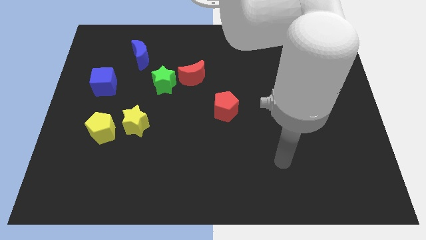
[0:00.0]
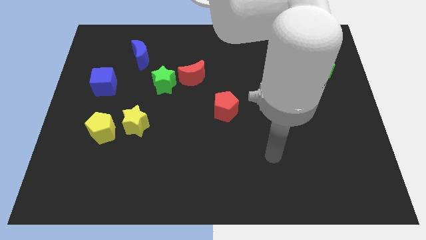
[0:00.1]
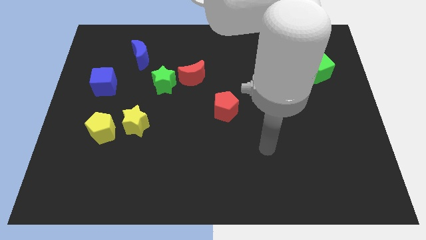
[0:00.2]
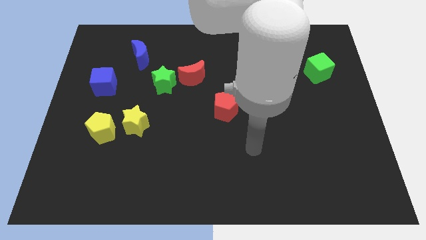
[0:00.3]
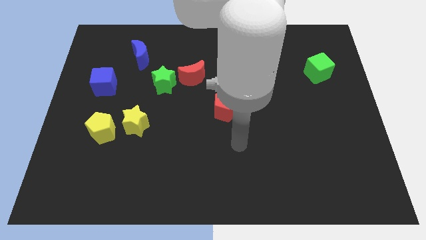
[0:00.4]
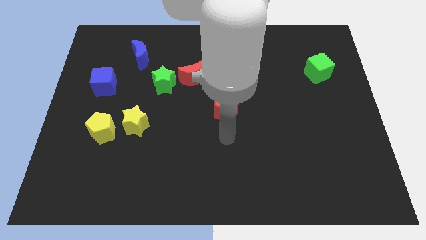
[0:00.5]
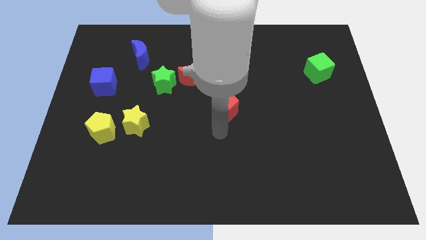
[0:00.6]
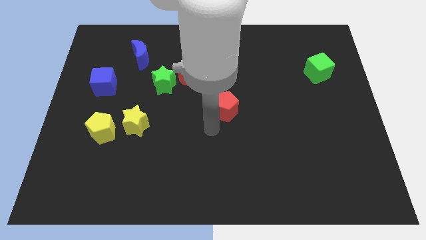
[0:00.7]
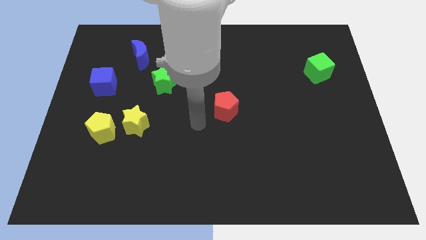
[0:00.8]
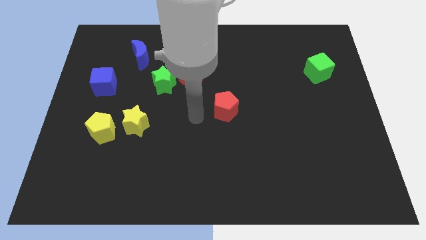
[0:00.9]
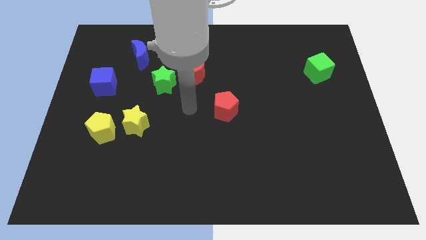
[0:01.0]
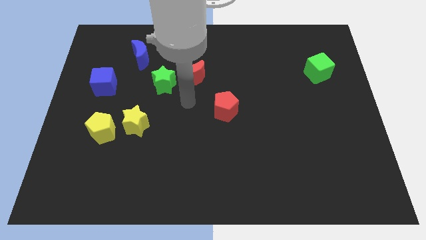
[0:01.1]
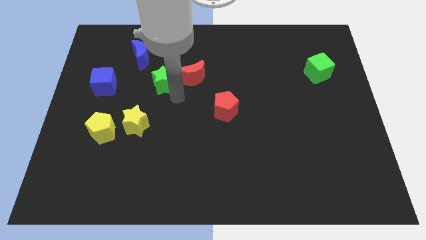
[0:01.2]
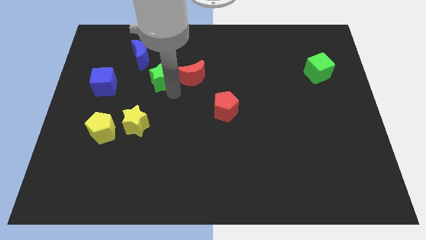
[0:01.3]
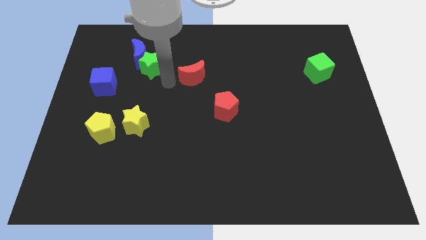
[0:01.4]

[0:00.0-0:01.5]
separate the red moon from the green star

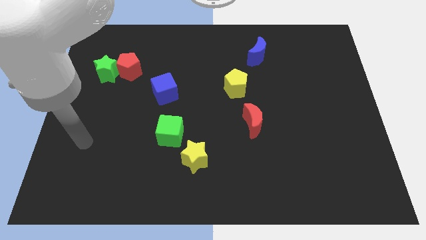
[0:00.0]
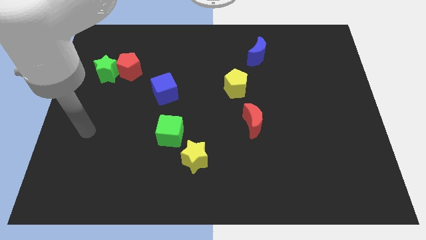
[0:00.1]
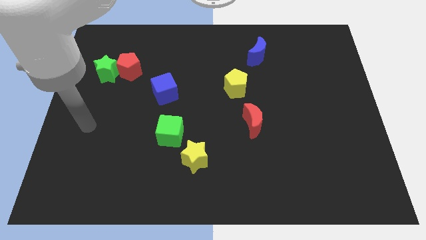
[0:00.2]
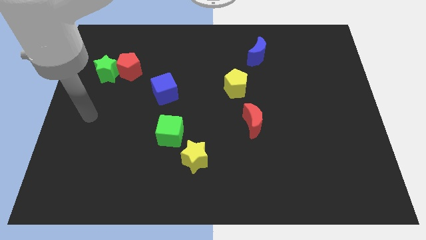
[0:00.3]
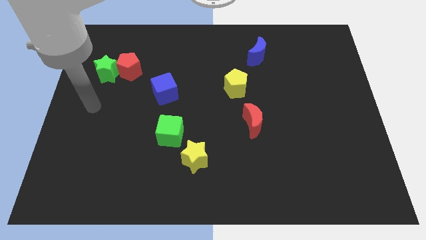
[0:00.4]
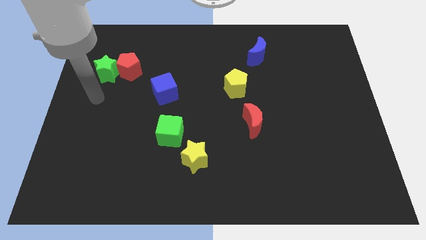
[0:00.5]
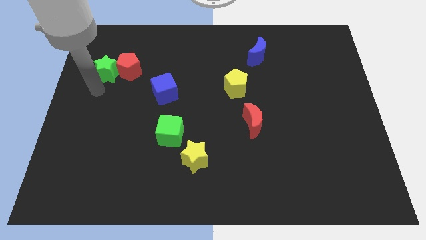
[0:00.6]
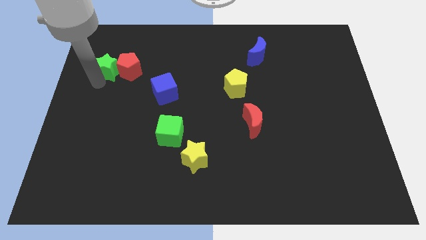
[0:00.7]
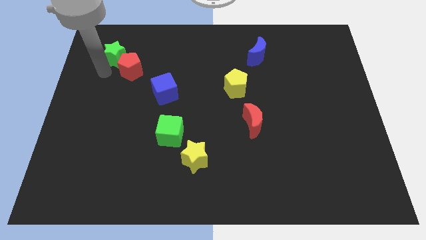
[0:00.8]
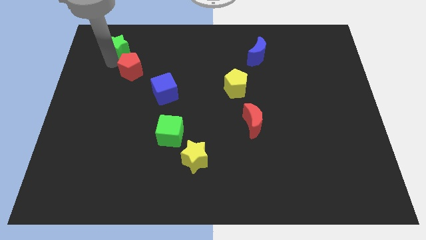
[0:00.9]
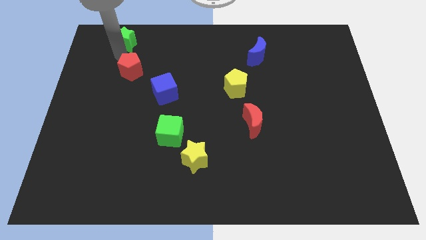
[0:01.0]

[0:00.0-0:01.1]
separate the red pentagon from the green star

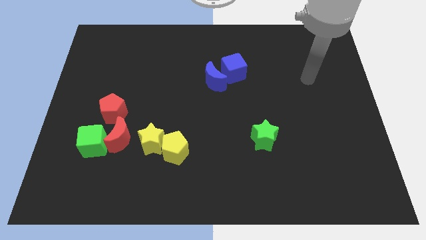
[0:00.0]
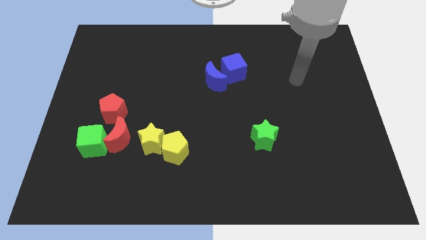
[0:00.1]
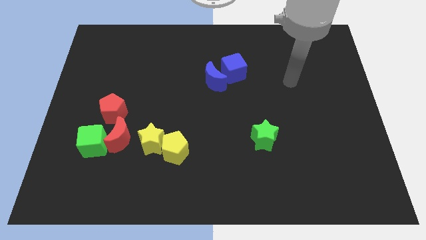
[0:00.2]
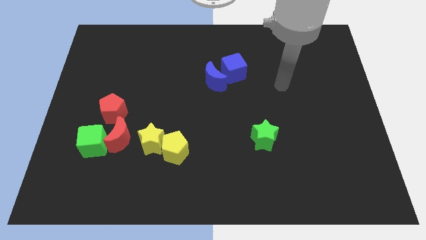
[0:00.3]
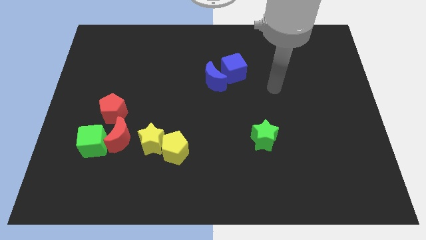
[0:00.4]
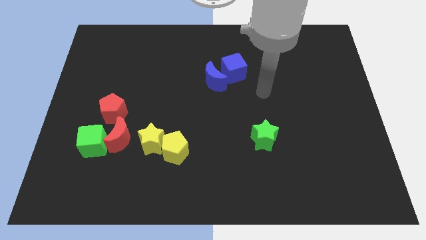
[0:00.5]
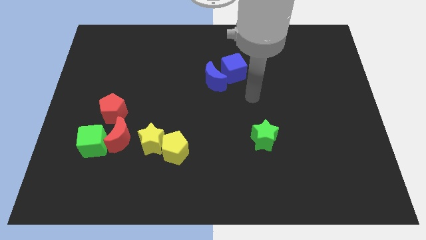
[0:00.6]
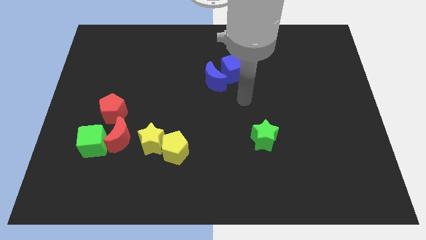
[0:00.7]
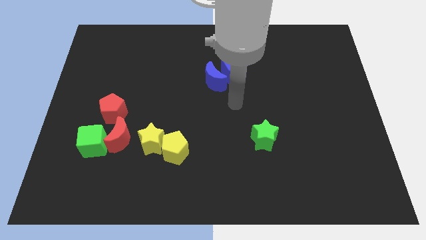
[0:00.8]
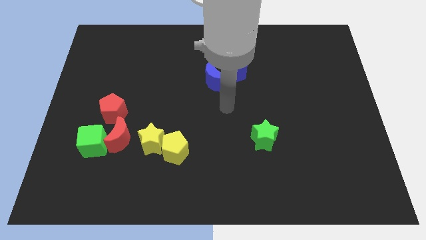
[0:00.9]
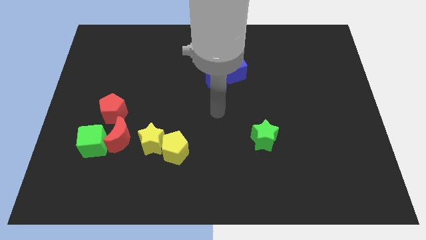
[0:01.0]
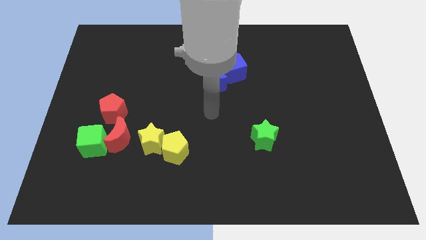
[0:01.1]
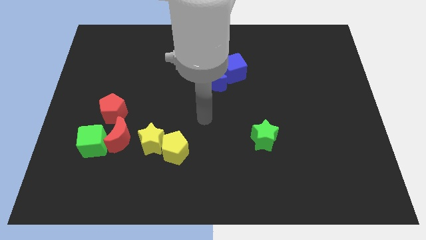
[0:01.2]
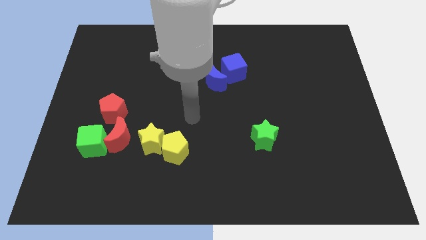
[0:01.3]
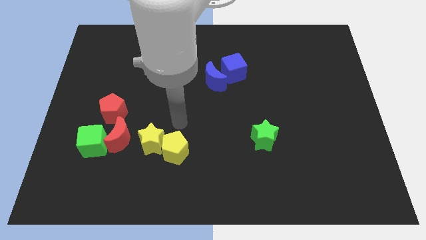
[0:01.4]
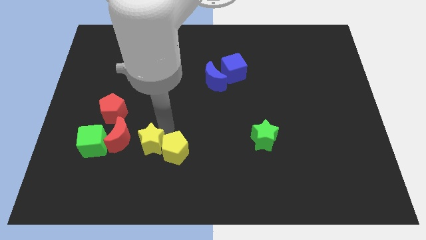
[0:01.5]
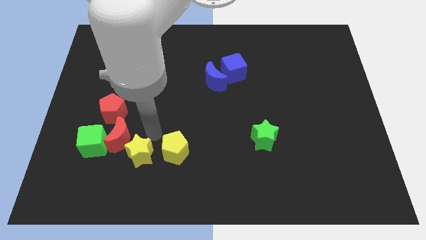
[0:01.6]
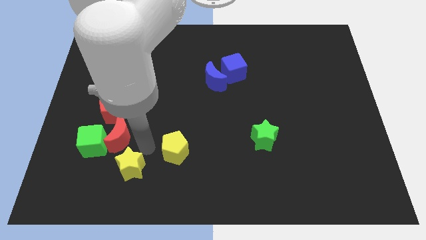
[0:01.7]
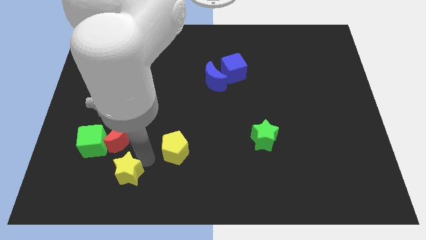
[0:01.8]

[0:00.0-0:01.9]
pull the yellow pentagon apart from the yellow star

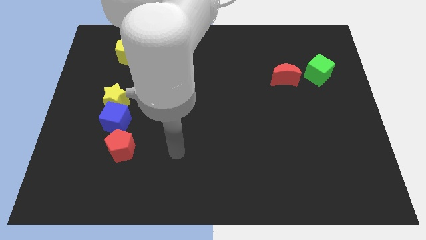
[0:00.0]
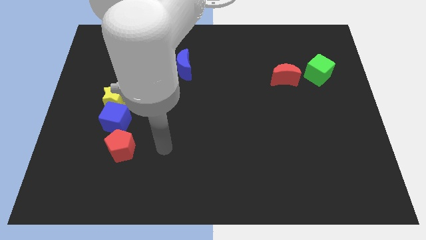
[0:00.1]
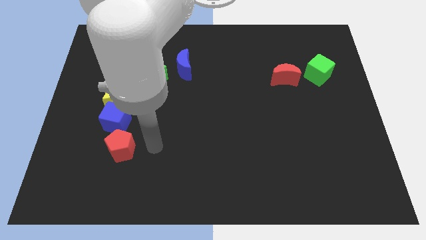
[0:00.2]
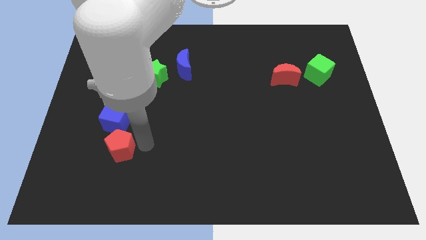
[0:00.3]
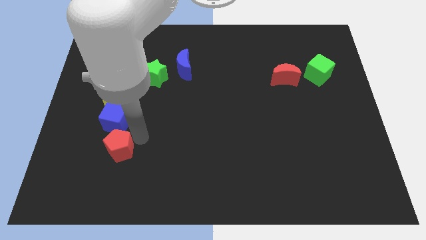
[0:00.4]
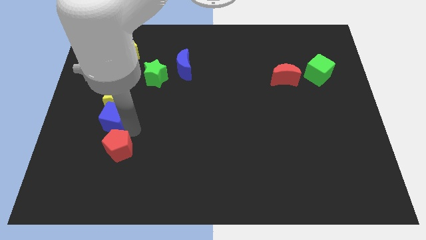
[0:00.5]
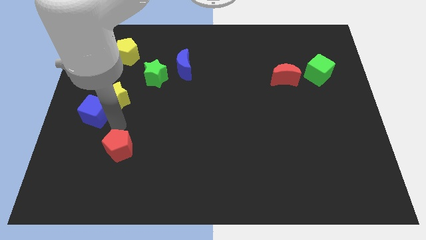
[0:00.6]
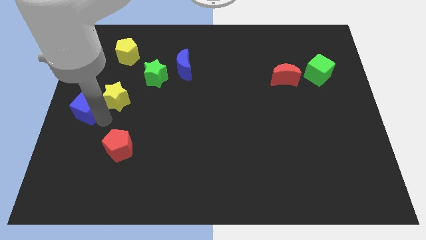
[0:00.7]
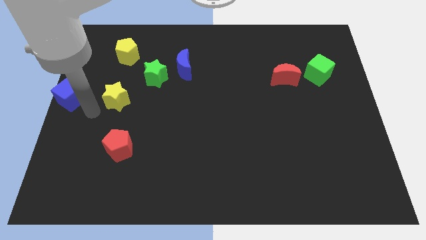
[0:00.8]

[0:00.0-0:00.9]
pull the yellow star apart from the blue cube

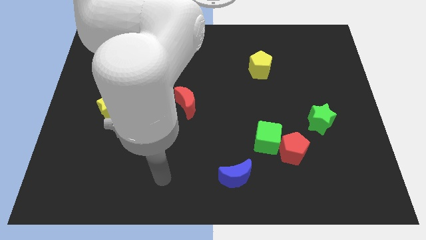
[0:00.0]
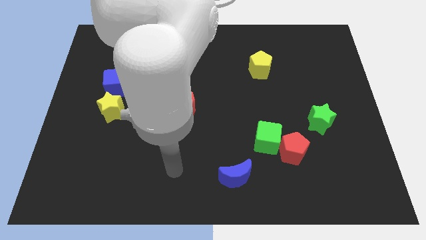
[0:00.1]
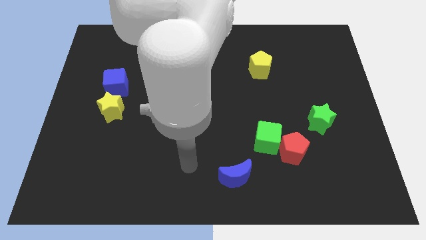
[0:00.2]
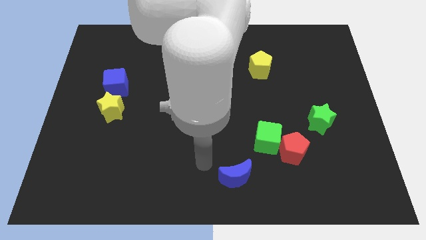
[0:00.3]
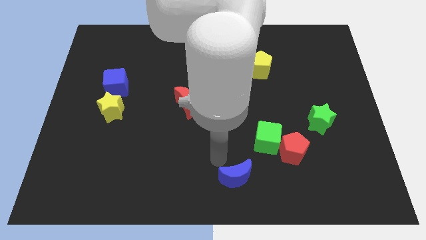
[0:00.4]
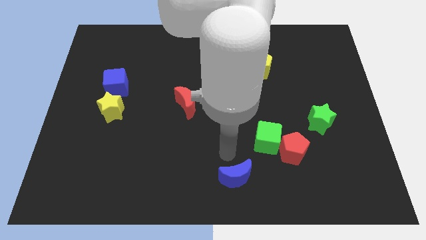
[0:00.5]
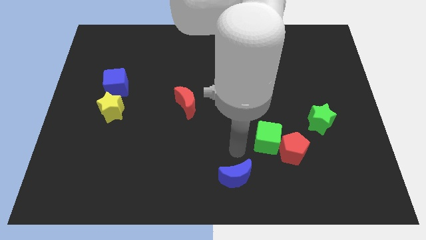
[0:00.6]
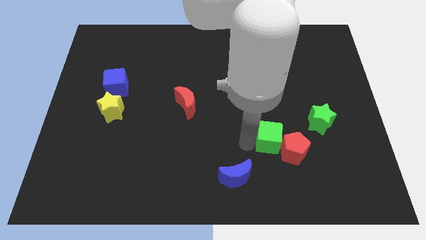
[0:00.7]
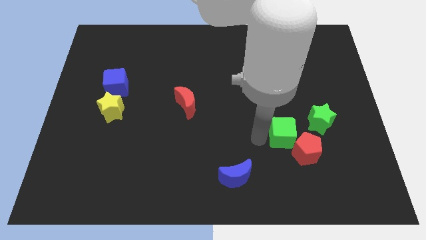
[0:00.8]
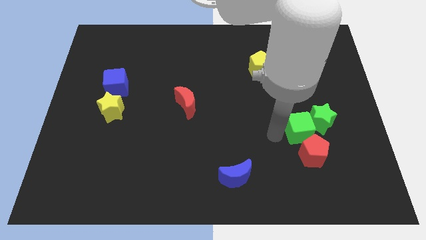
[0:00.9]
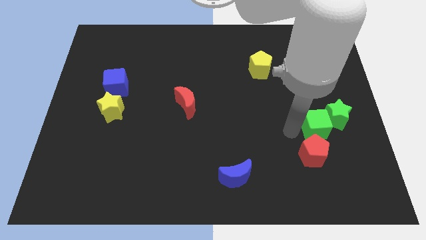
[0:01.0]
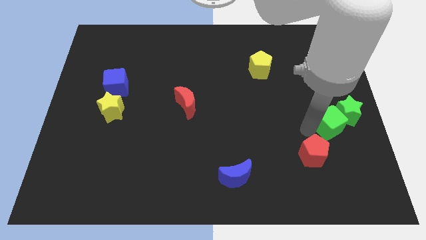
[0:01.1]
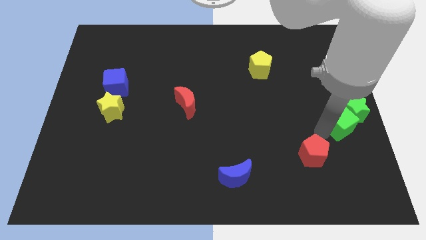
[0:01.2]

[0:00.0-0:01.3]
move the red pentagon away from the green cube

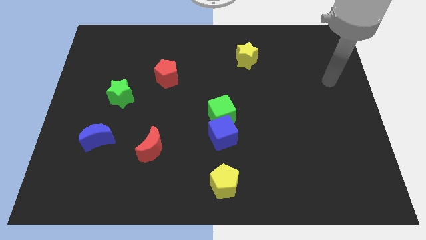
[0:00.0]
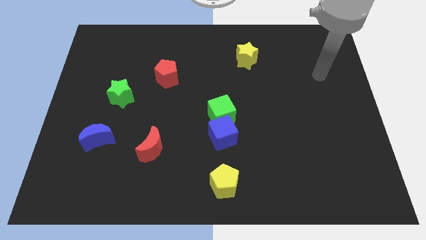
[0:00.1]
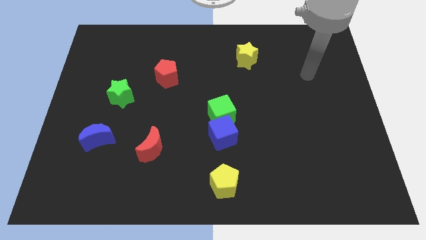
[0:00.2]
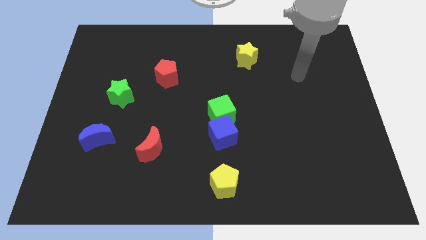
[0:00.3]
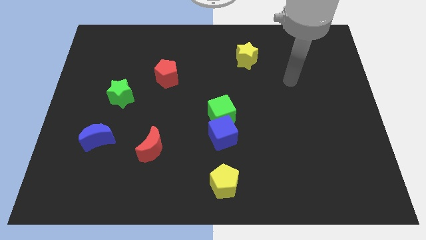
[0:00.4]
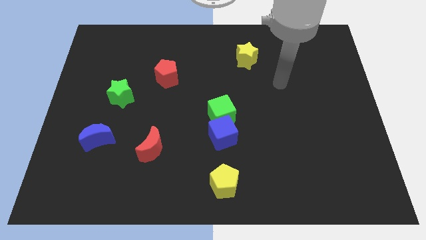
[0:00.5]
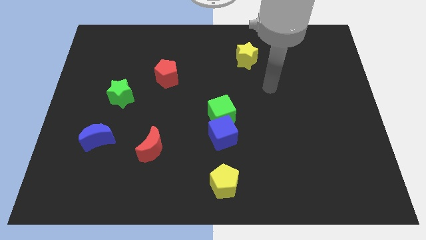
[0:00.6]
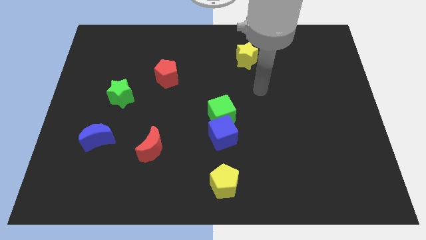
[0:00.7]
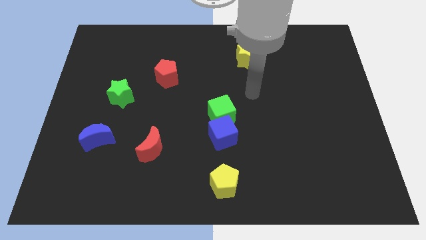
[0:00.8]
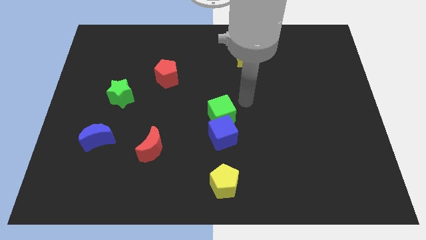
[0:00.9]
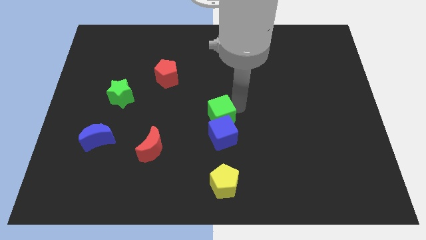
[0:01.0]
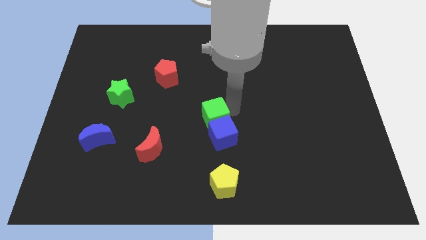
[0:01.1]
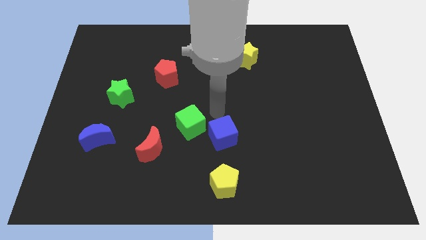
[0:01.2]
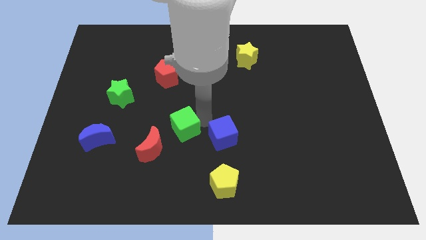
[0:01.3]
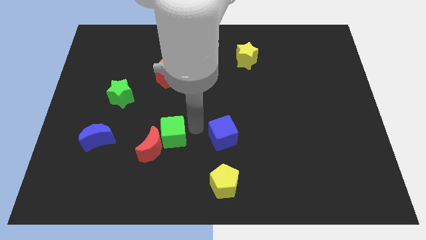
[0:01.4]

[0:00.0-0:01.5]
move the blue cube away from the green cube

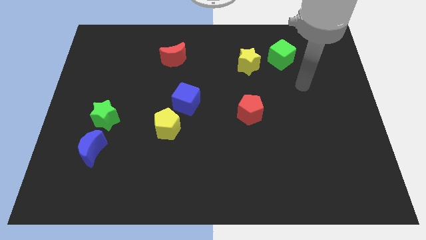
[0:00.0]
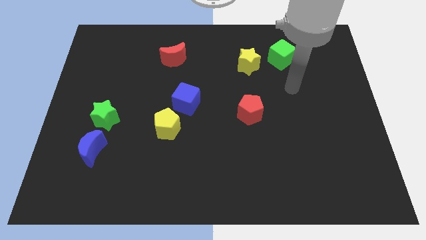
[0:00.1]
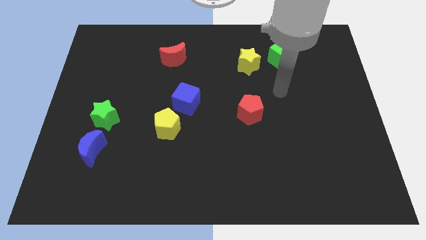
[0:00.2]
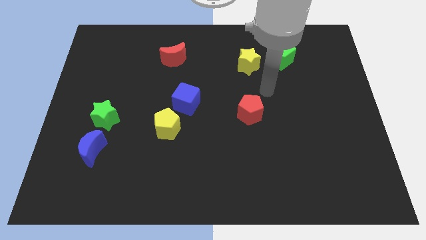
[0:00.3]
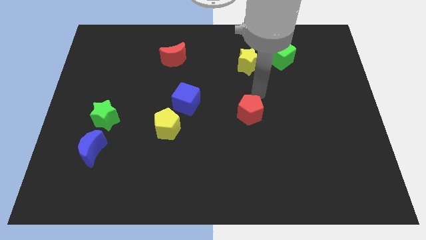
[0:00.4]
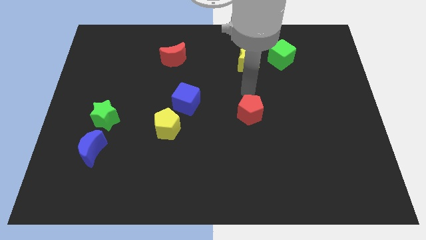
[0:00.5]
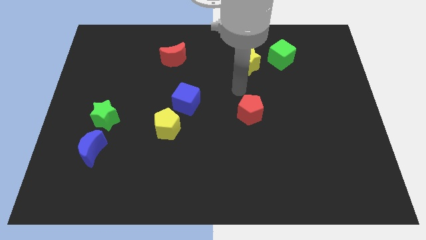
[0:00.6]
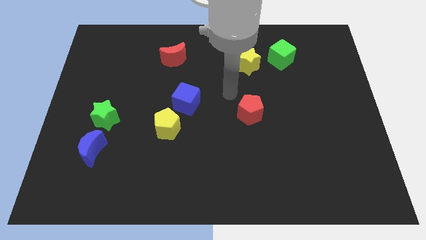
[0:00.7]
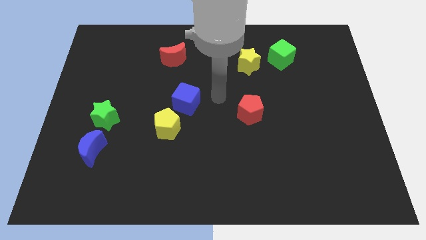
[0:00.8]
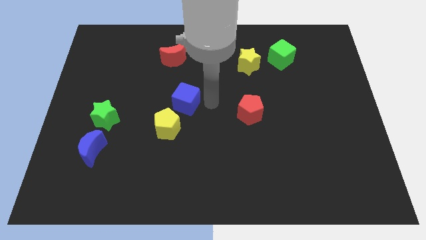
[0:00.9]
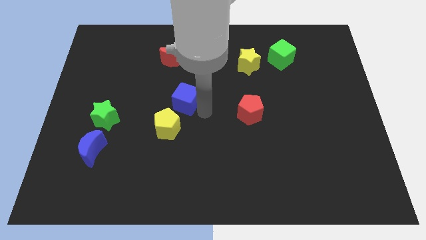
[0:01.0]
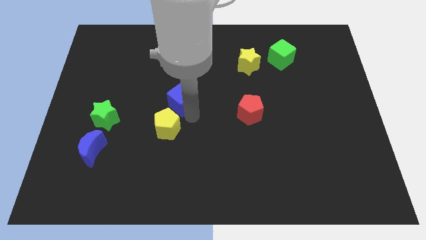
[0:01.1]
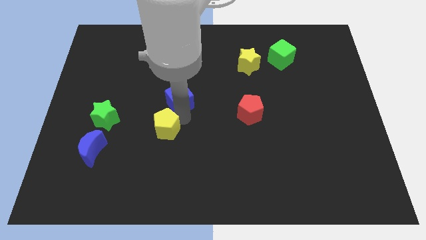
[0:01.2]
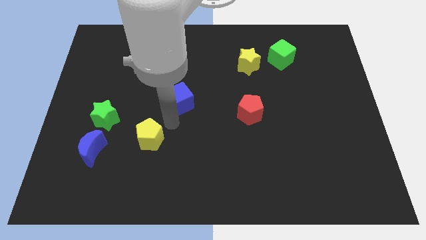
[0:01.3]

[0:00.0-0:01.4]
move the blue cube away from the yellow pentagon
